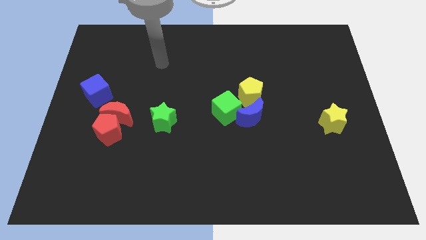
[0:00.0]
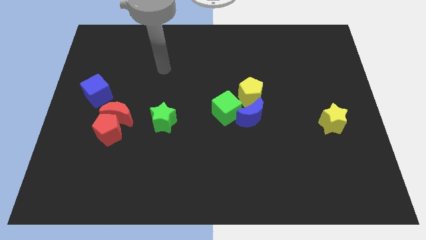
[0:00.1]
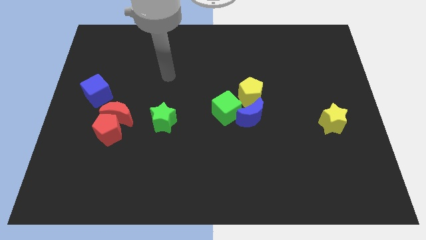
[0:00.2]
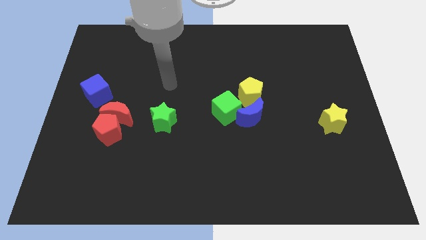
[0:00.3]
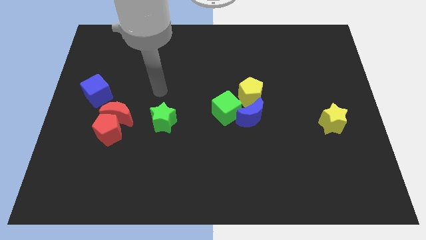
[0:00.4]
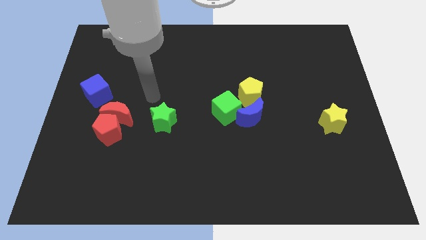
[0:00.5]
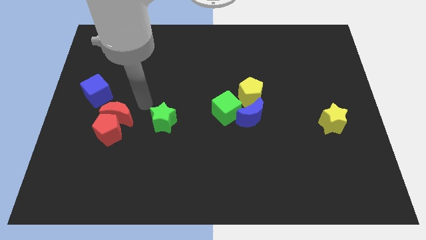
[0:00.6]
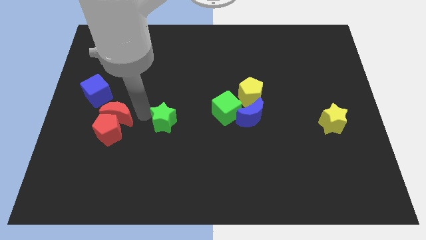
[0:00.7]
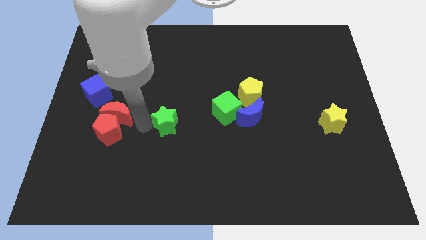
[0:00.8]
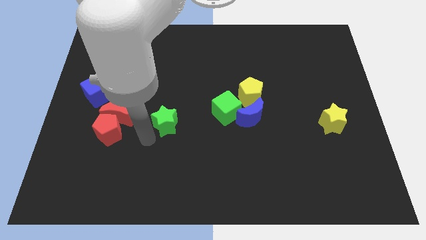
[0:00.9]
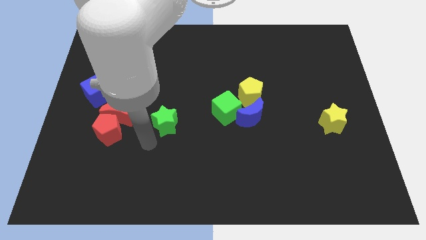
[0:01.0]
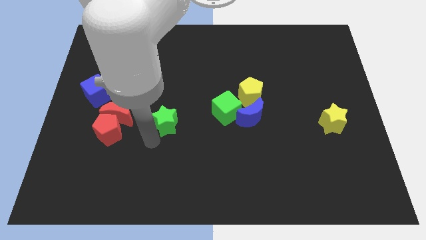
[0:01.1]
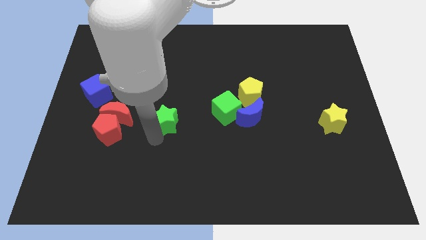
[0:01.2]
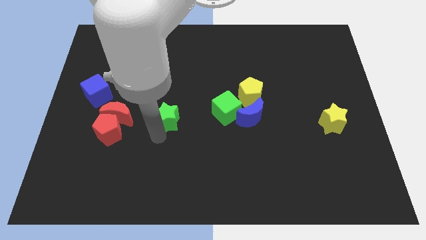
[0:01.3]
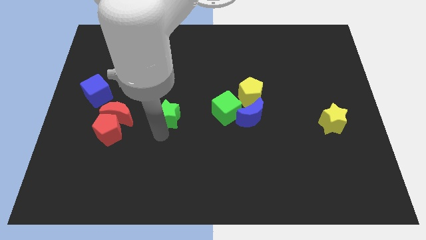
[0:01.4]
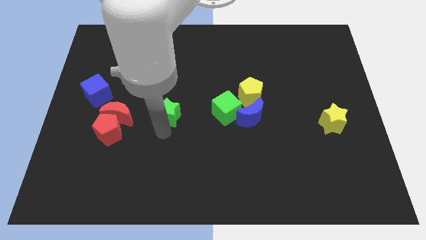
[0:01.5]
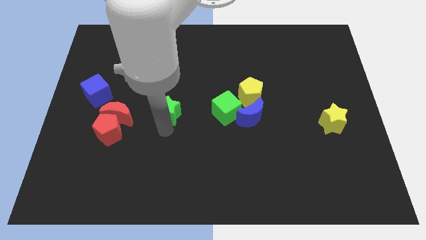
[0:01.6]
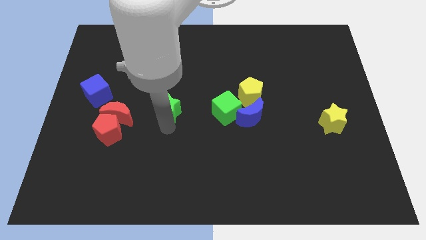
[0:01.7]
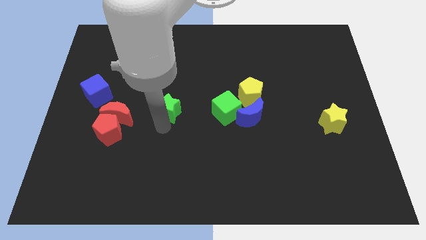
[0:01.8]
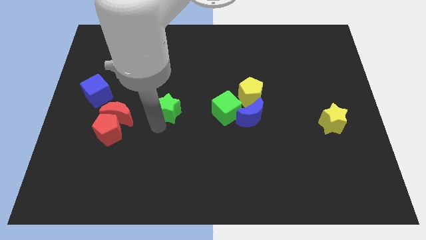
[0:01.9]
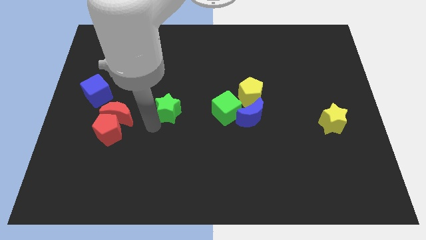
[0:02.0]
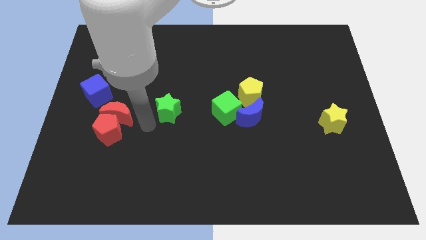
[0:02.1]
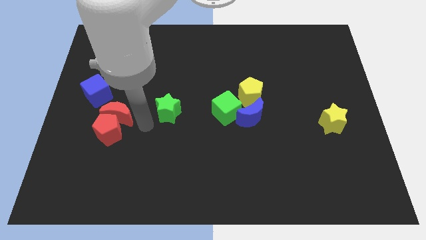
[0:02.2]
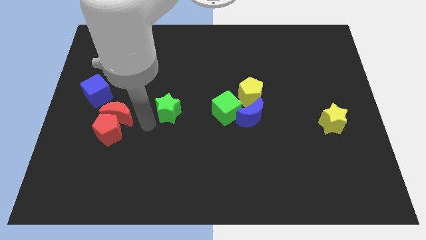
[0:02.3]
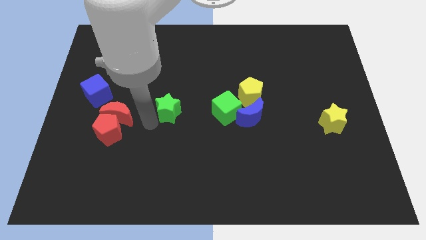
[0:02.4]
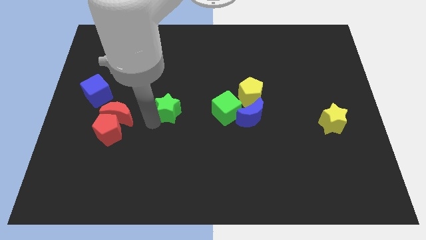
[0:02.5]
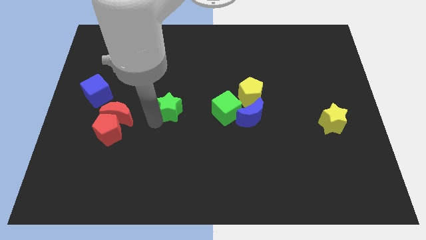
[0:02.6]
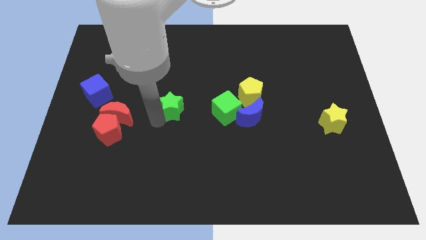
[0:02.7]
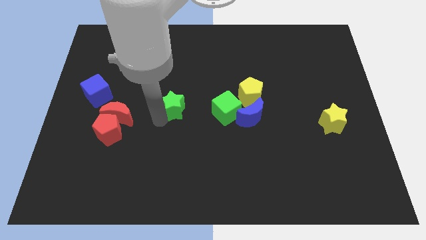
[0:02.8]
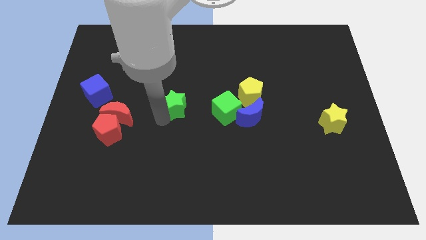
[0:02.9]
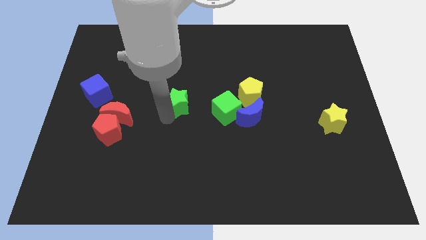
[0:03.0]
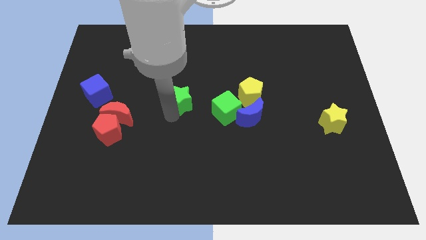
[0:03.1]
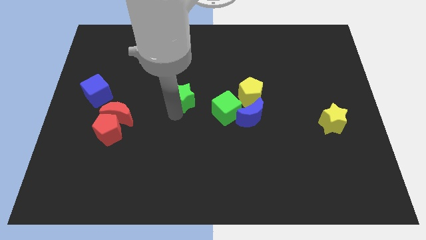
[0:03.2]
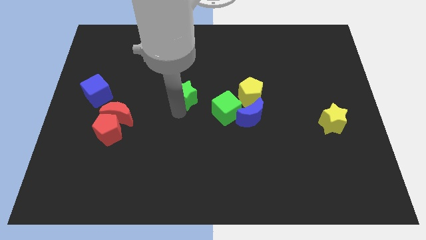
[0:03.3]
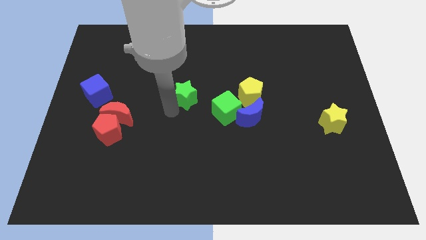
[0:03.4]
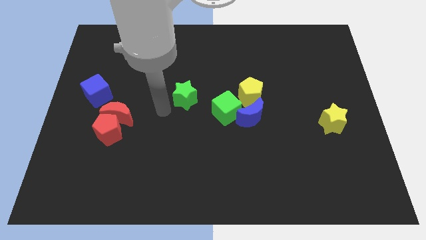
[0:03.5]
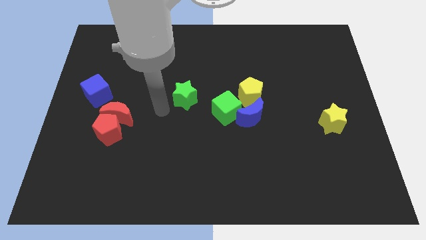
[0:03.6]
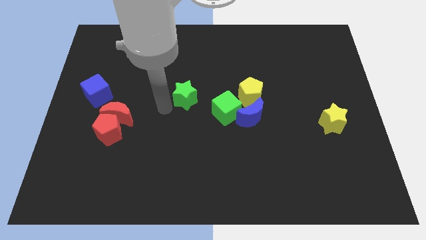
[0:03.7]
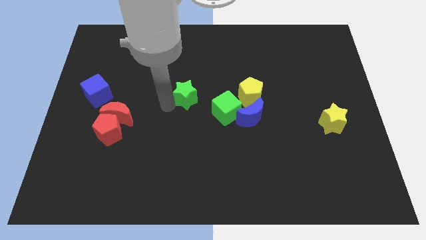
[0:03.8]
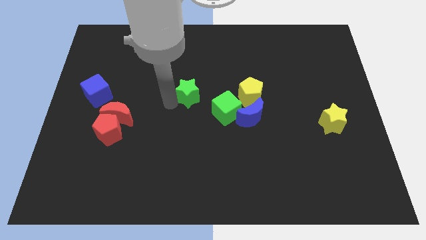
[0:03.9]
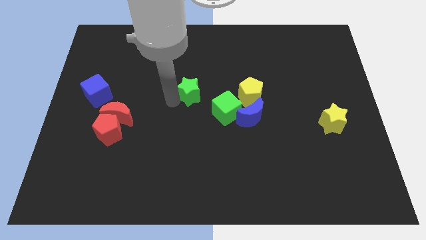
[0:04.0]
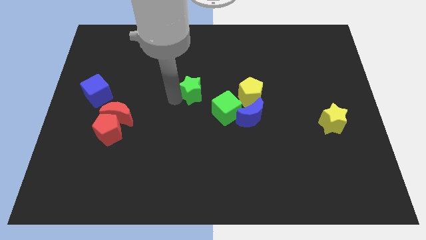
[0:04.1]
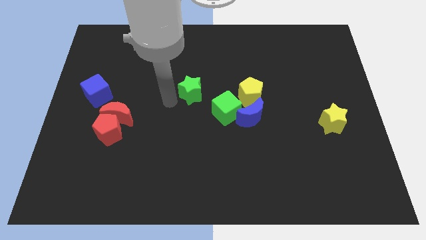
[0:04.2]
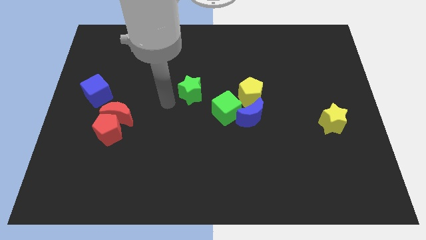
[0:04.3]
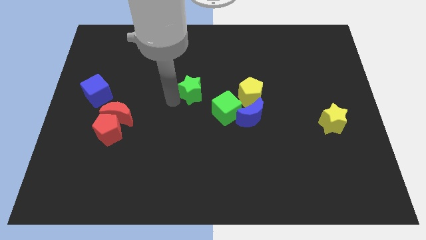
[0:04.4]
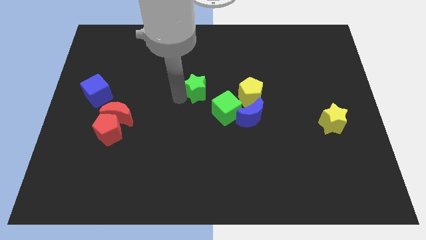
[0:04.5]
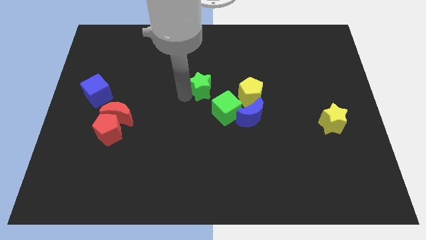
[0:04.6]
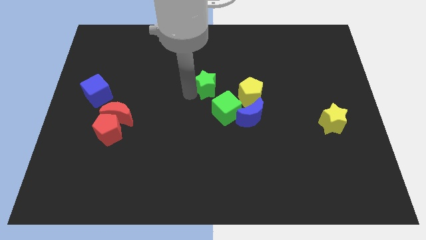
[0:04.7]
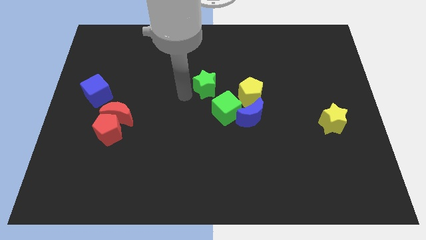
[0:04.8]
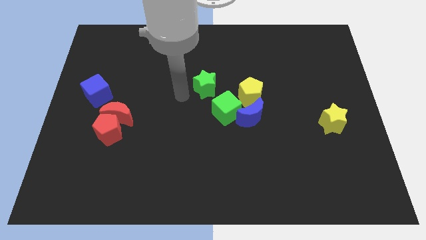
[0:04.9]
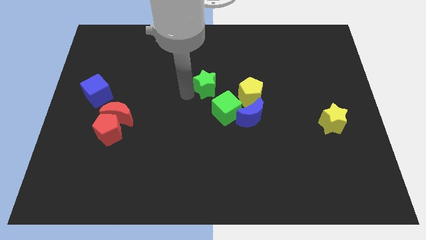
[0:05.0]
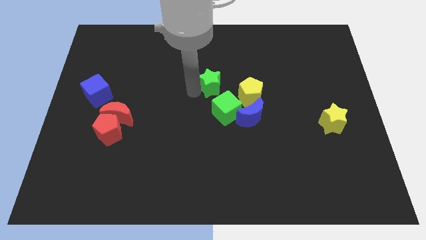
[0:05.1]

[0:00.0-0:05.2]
move the green star to the top left side of the yellow pentagon

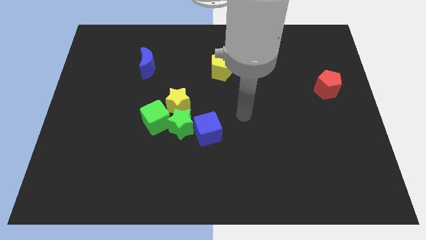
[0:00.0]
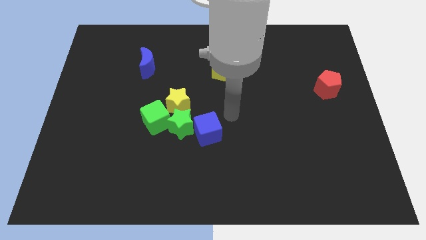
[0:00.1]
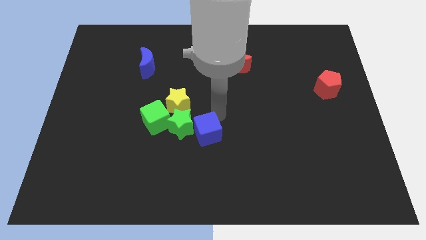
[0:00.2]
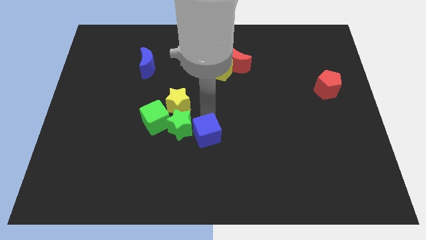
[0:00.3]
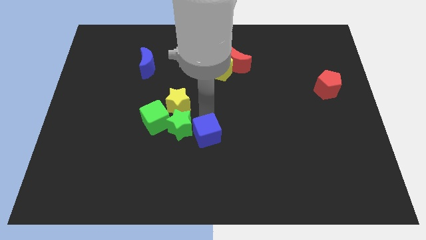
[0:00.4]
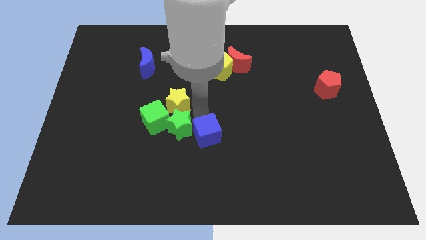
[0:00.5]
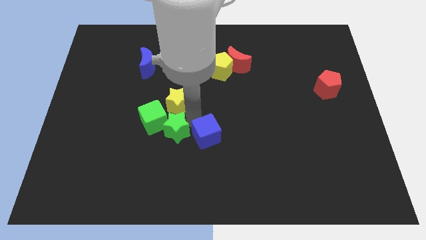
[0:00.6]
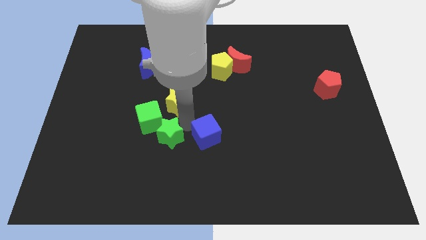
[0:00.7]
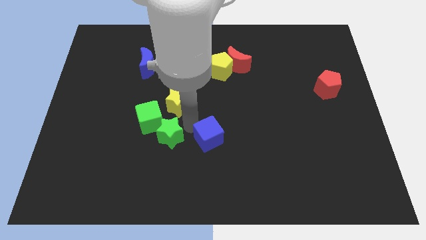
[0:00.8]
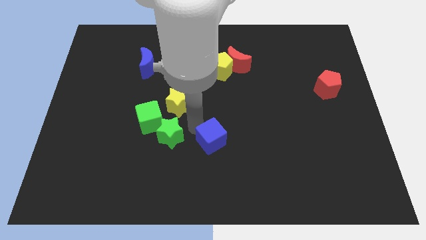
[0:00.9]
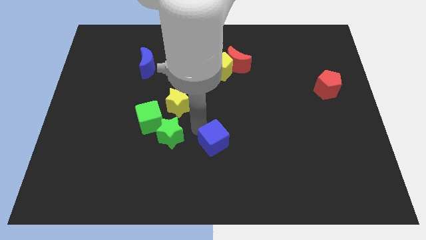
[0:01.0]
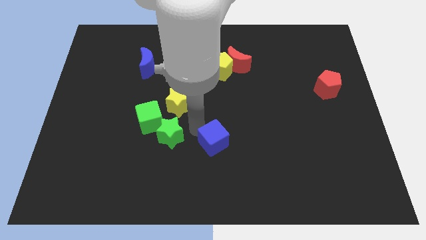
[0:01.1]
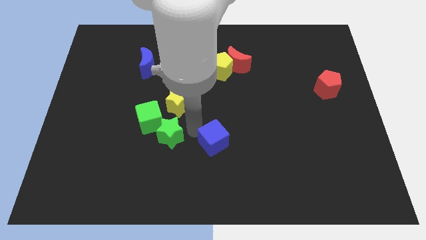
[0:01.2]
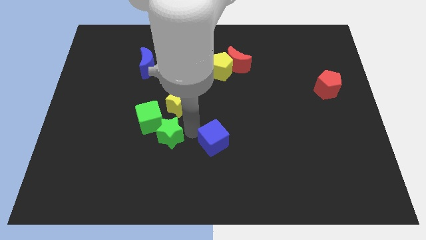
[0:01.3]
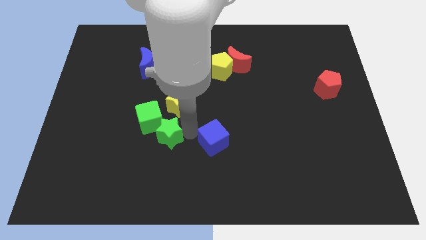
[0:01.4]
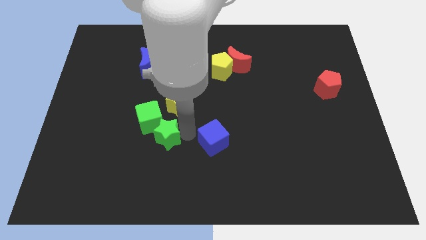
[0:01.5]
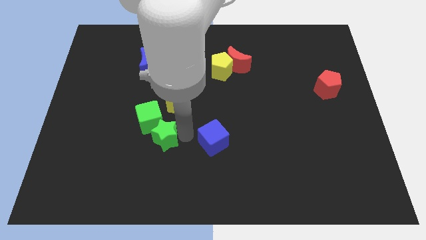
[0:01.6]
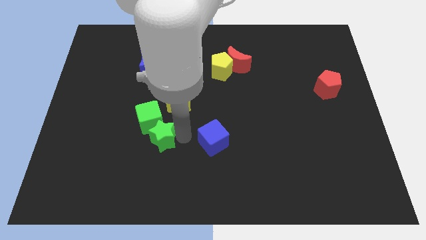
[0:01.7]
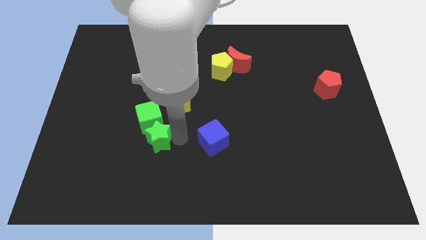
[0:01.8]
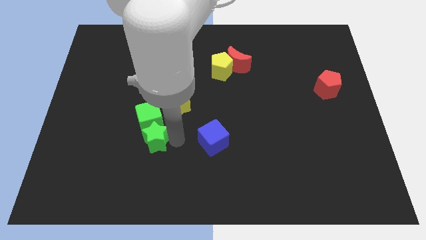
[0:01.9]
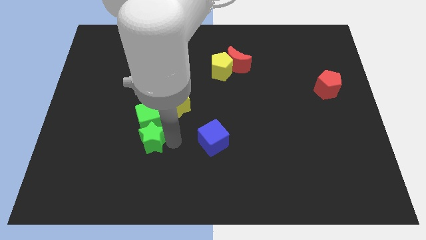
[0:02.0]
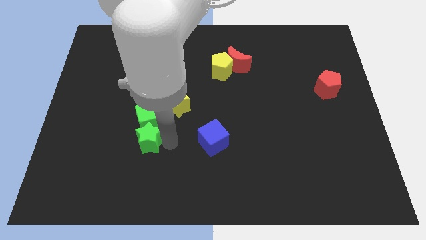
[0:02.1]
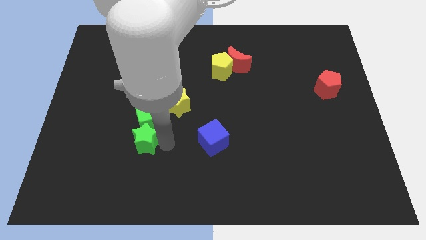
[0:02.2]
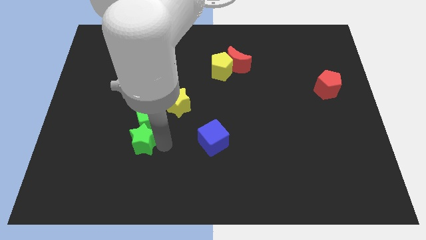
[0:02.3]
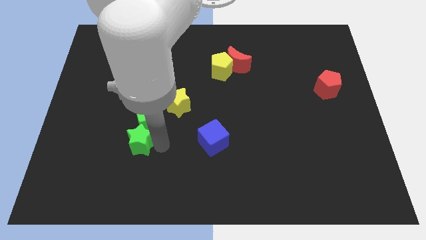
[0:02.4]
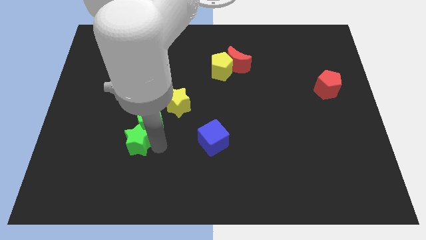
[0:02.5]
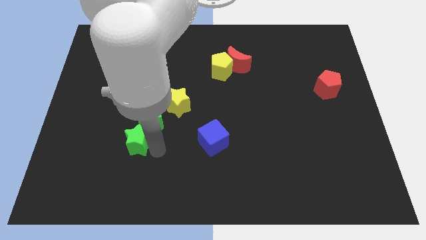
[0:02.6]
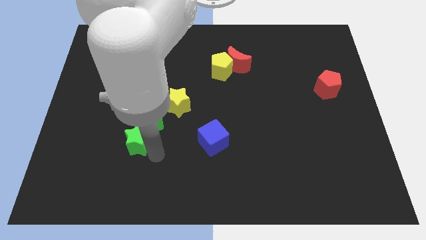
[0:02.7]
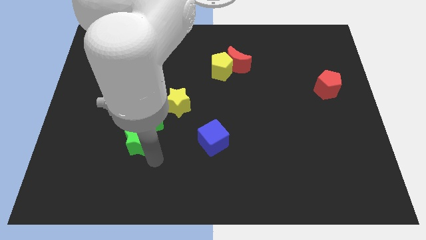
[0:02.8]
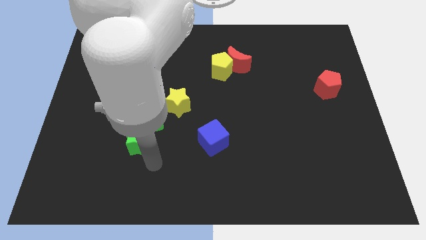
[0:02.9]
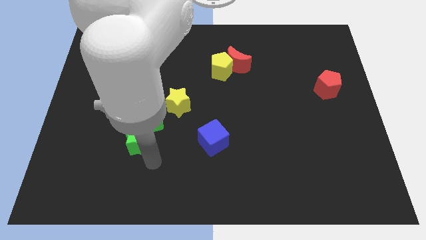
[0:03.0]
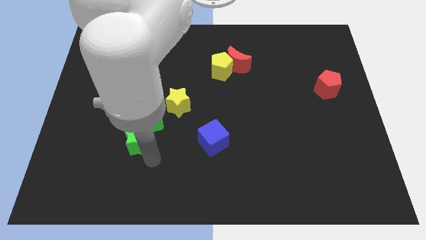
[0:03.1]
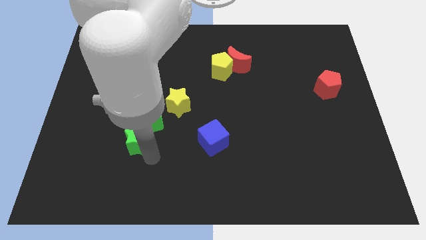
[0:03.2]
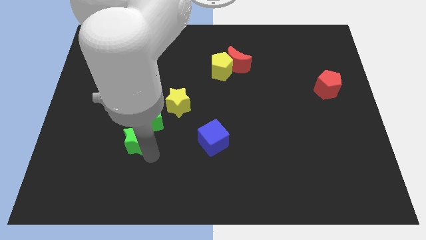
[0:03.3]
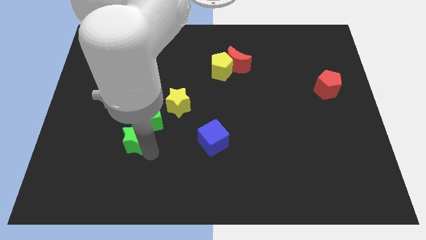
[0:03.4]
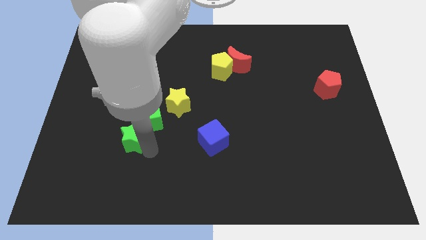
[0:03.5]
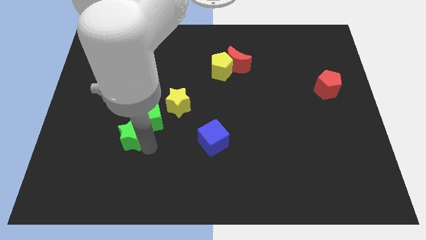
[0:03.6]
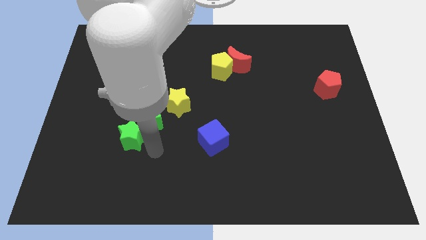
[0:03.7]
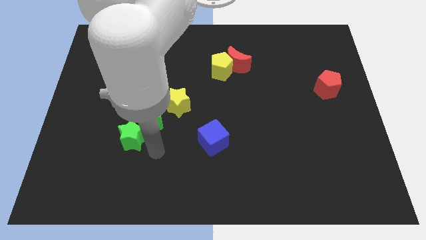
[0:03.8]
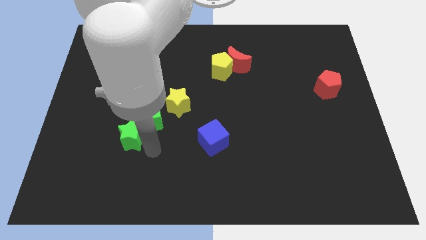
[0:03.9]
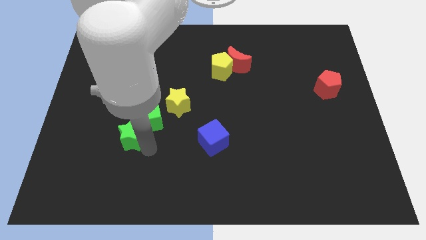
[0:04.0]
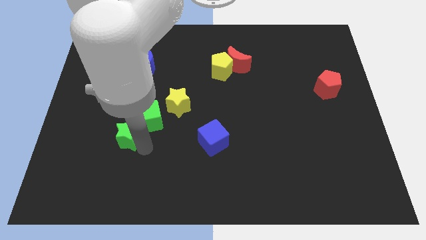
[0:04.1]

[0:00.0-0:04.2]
push the green star just left of the green cube
